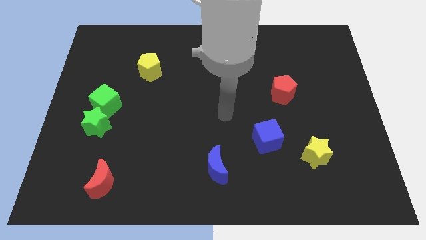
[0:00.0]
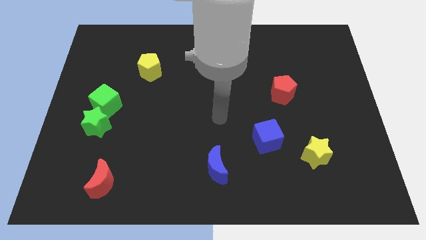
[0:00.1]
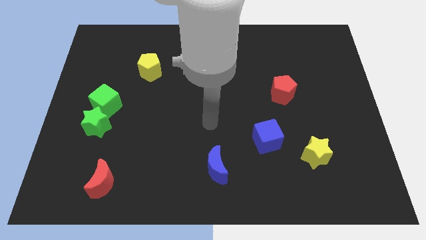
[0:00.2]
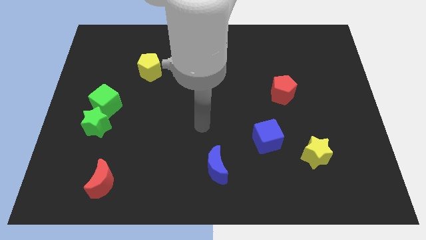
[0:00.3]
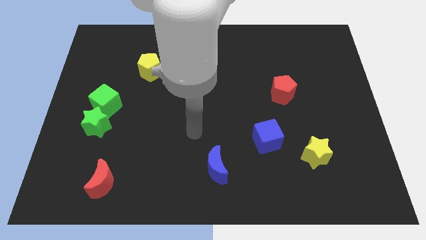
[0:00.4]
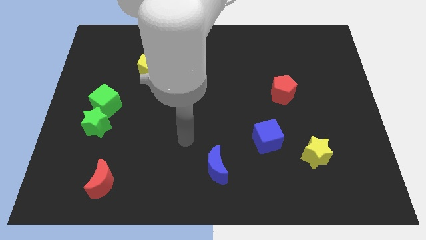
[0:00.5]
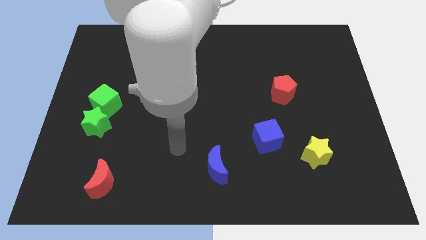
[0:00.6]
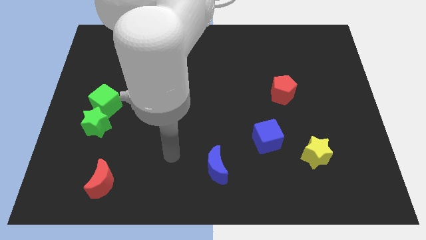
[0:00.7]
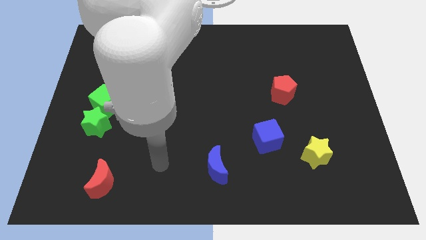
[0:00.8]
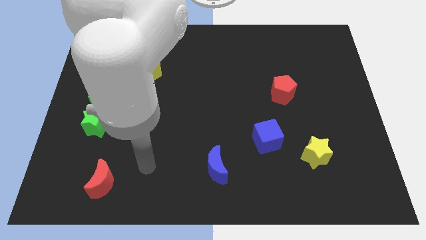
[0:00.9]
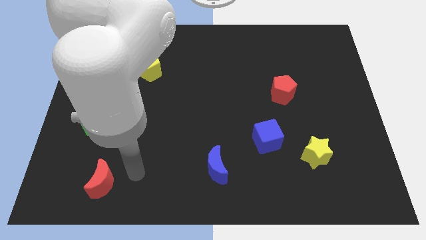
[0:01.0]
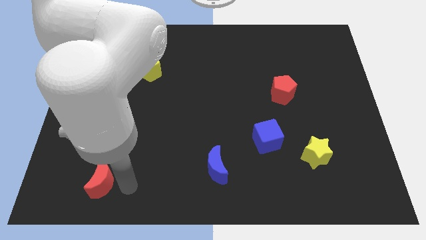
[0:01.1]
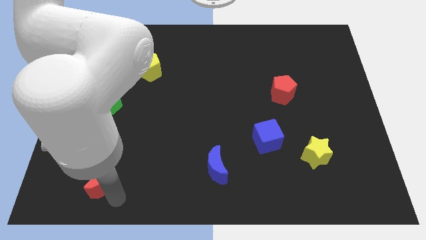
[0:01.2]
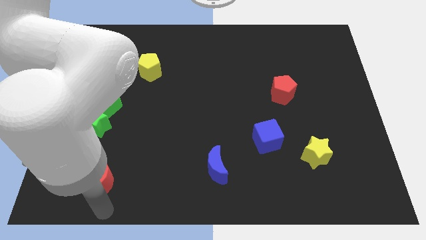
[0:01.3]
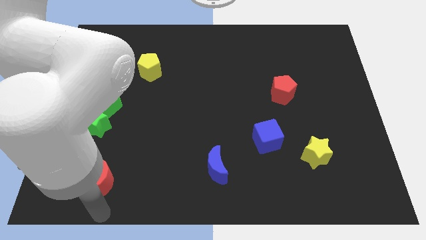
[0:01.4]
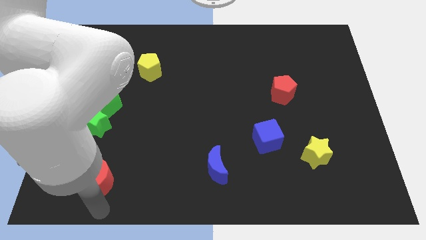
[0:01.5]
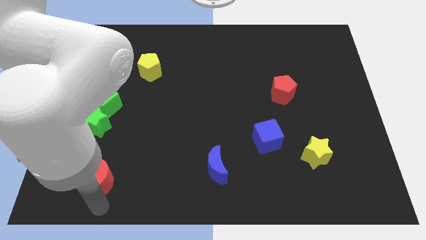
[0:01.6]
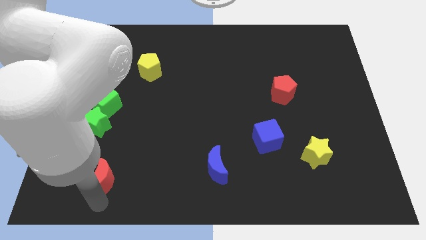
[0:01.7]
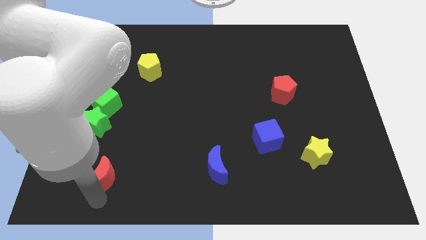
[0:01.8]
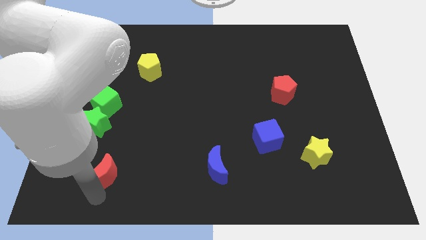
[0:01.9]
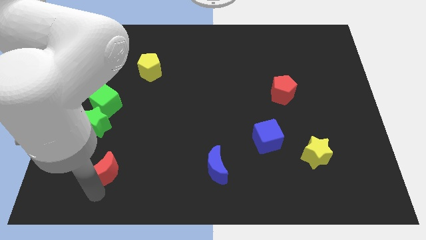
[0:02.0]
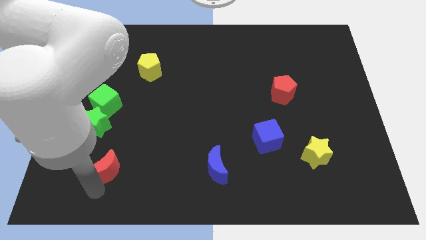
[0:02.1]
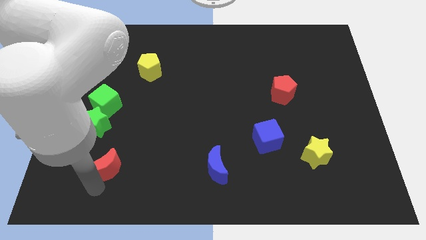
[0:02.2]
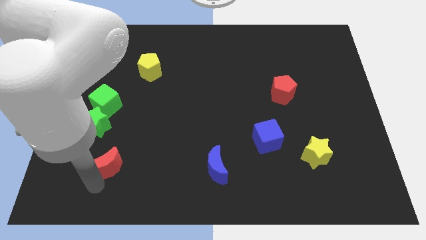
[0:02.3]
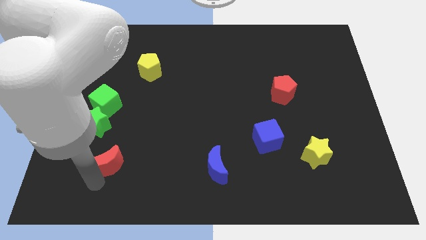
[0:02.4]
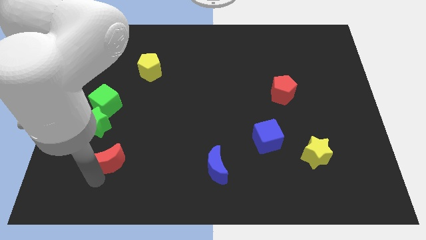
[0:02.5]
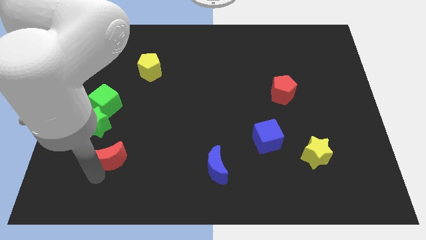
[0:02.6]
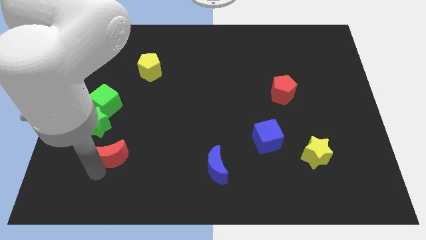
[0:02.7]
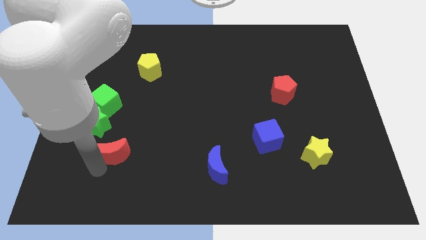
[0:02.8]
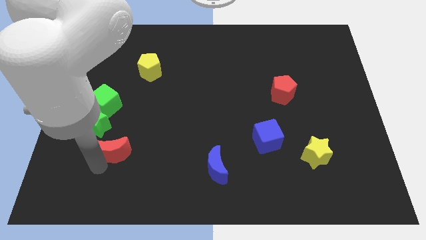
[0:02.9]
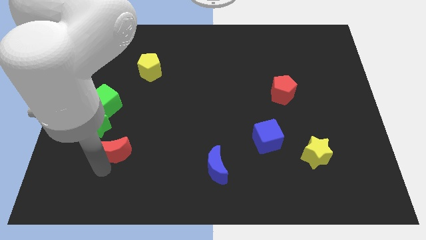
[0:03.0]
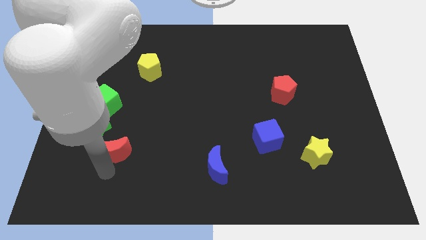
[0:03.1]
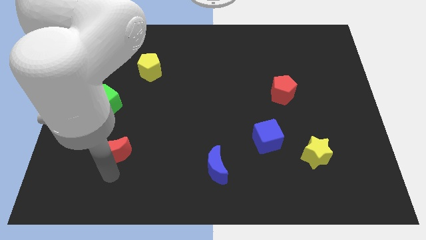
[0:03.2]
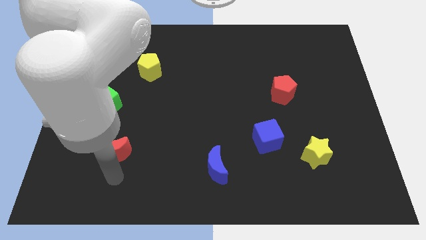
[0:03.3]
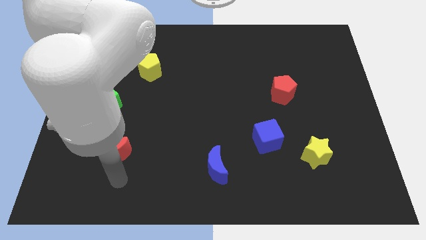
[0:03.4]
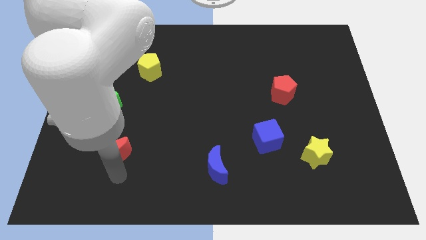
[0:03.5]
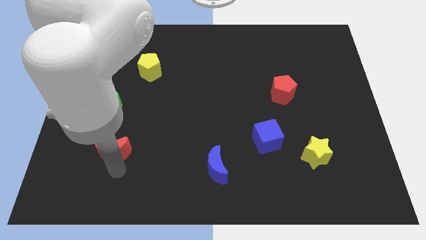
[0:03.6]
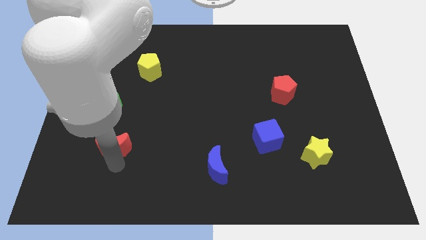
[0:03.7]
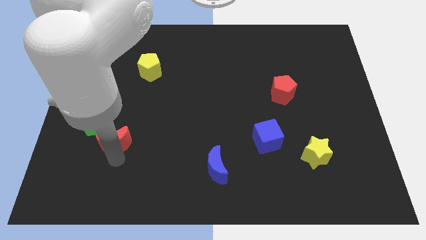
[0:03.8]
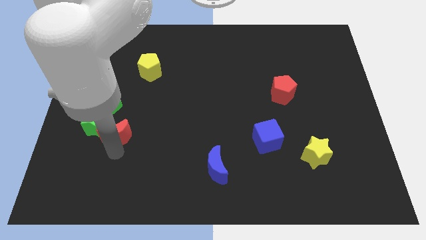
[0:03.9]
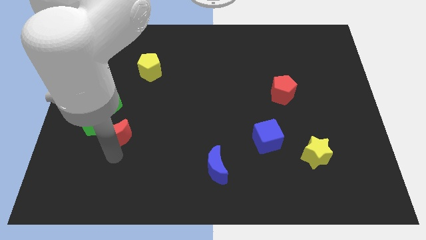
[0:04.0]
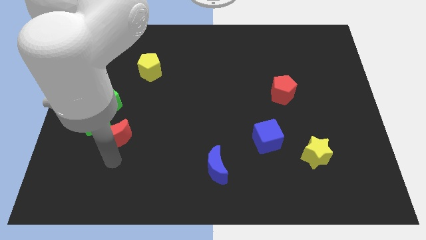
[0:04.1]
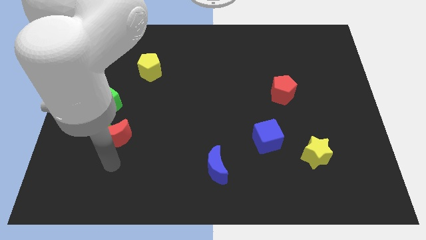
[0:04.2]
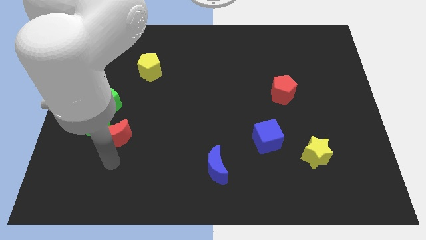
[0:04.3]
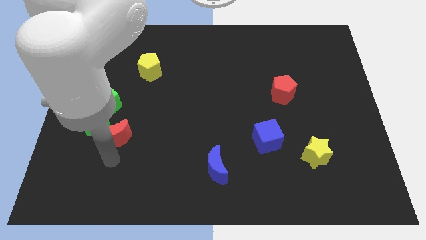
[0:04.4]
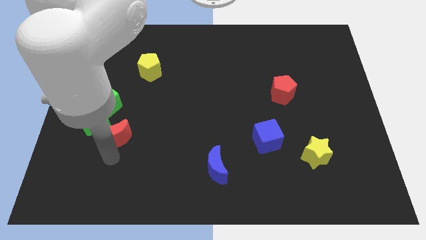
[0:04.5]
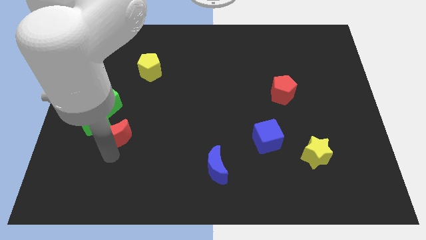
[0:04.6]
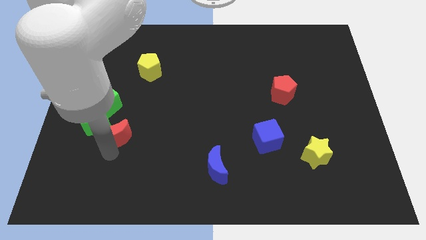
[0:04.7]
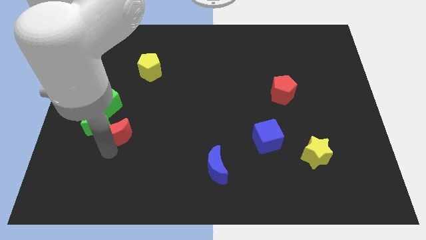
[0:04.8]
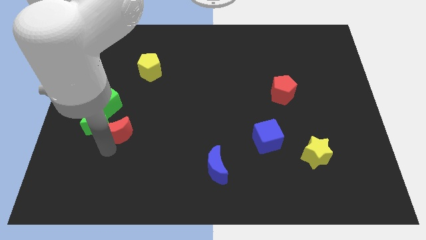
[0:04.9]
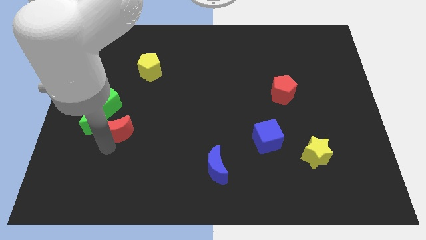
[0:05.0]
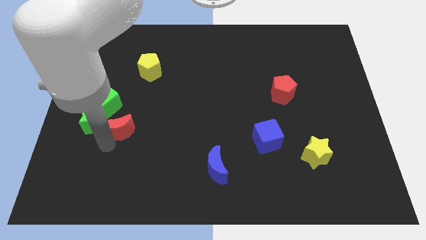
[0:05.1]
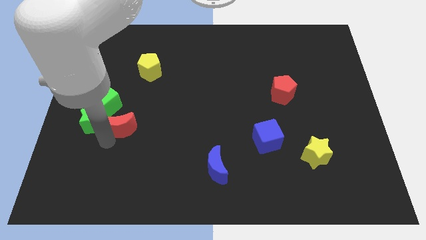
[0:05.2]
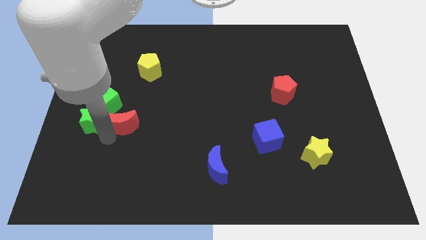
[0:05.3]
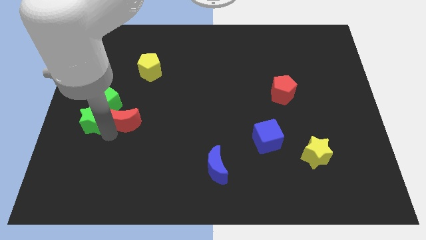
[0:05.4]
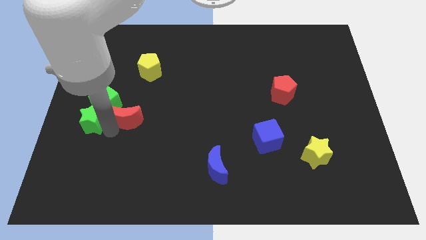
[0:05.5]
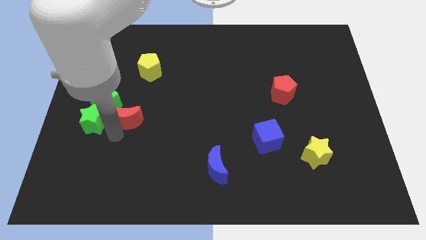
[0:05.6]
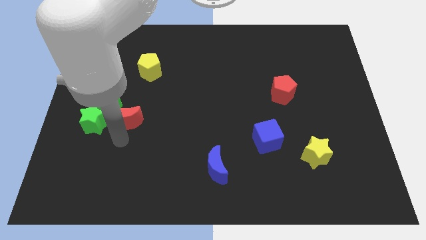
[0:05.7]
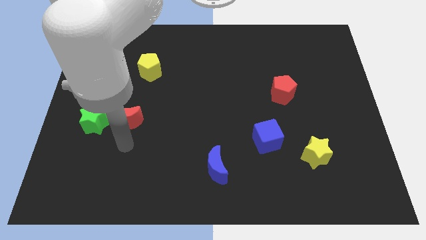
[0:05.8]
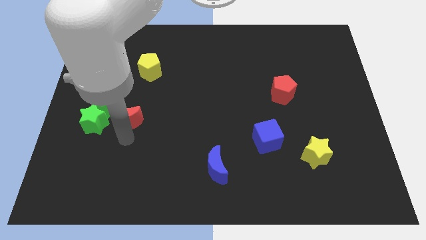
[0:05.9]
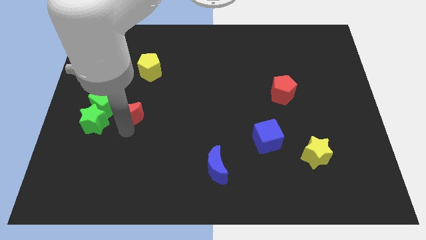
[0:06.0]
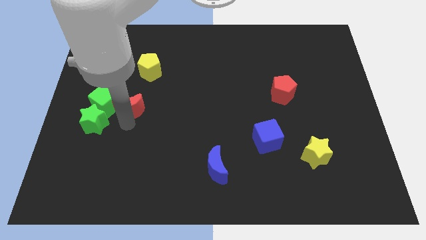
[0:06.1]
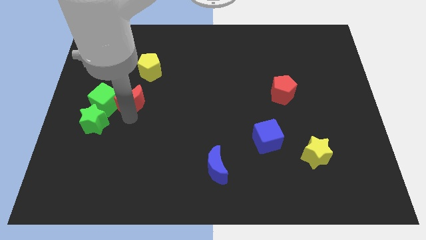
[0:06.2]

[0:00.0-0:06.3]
push the red moon up

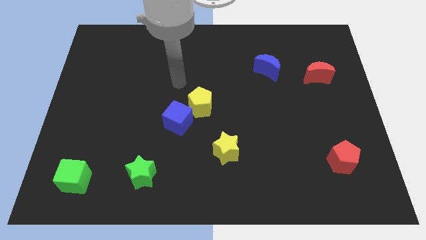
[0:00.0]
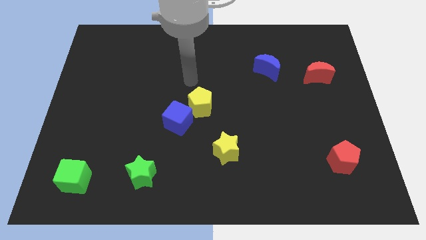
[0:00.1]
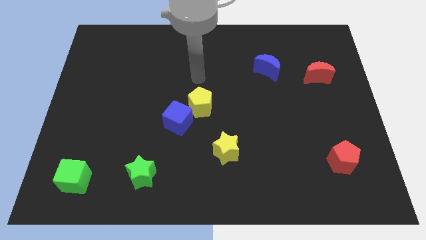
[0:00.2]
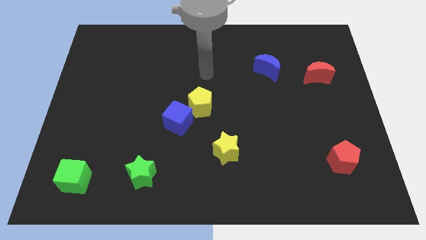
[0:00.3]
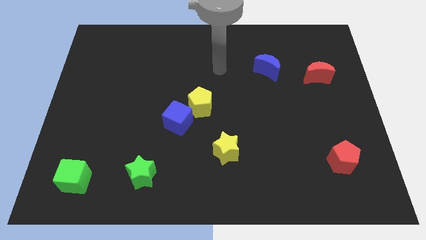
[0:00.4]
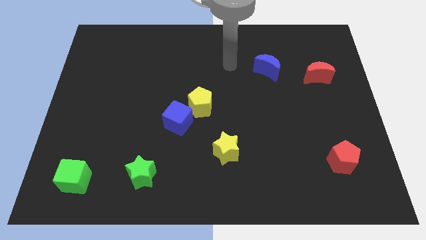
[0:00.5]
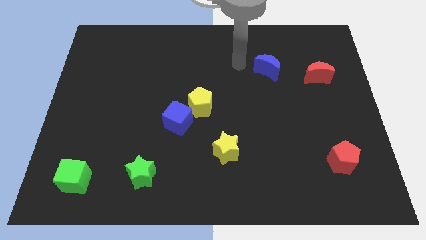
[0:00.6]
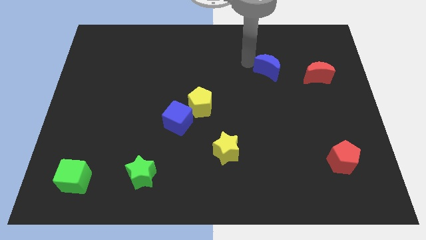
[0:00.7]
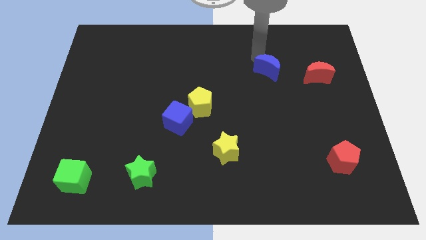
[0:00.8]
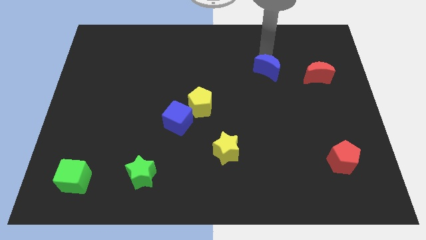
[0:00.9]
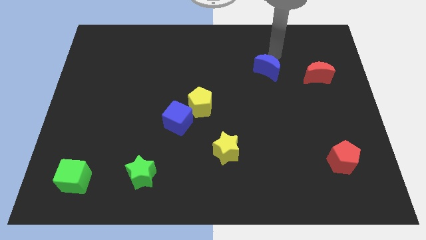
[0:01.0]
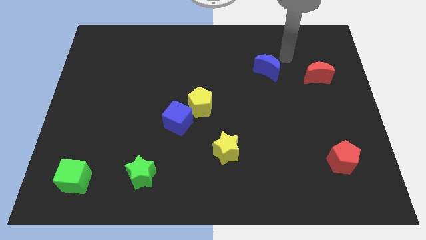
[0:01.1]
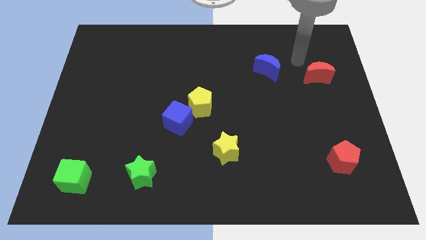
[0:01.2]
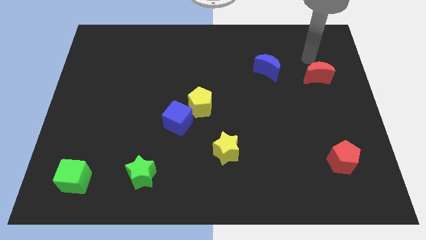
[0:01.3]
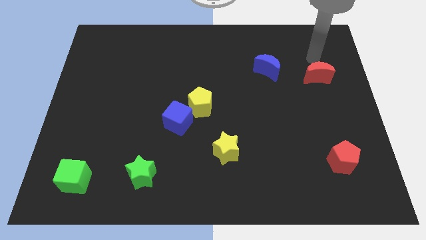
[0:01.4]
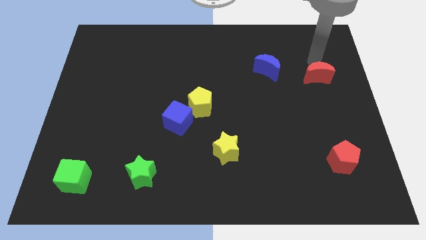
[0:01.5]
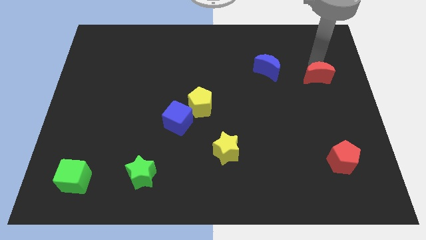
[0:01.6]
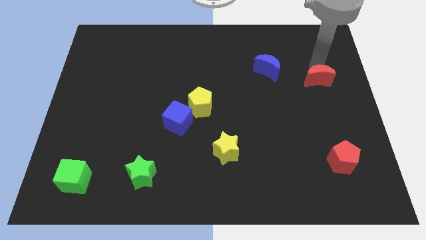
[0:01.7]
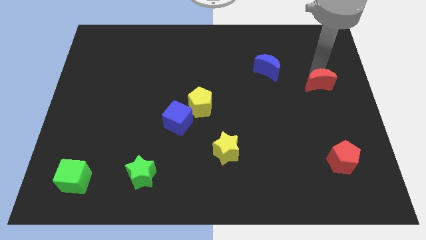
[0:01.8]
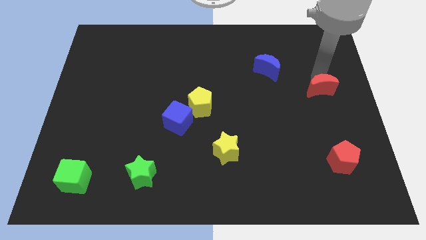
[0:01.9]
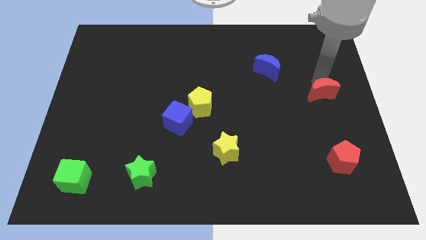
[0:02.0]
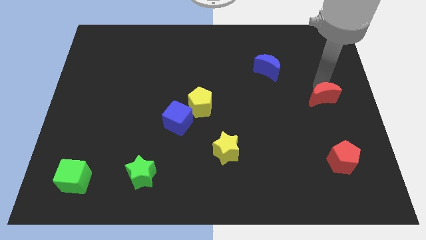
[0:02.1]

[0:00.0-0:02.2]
move the red moon somewhat down
